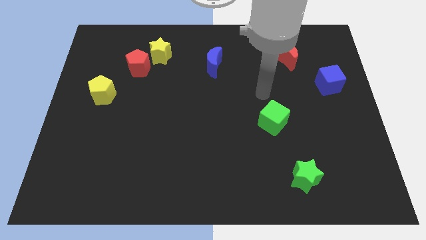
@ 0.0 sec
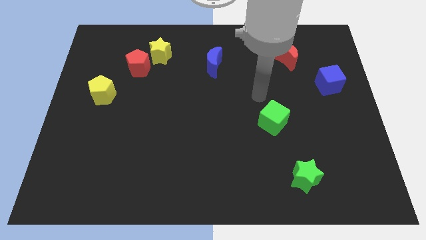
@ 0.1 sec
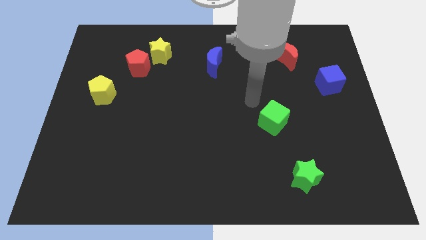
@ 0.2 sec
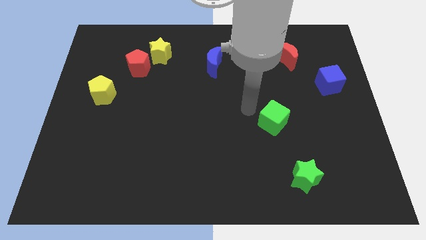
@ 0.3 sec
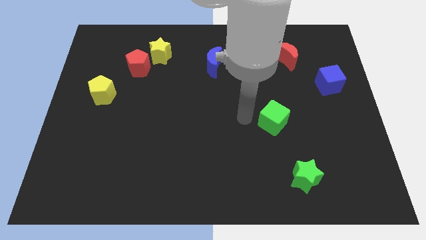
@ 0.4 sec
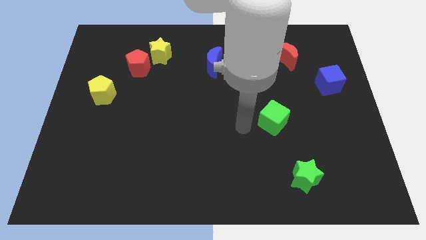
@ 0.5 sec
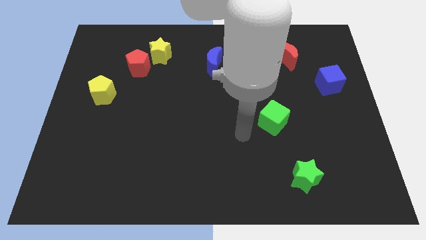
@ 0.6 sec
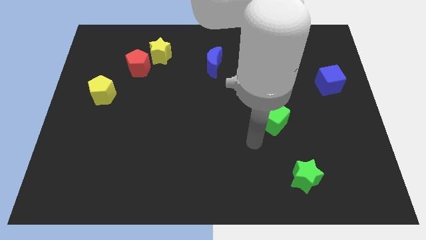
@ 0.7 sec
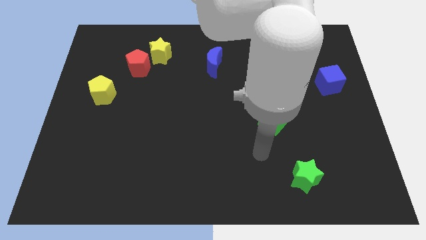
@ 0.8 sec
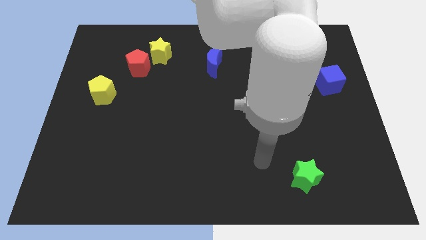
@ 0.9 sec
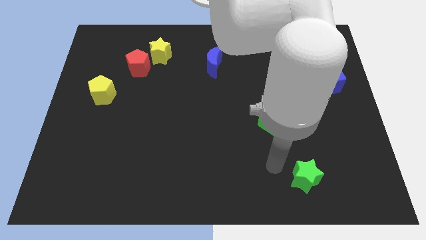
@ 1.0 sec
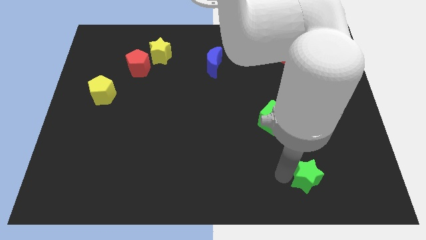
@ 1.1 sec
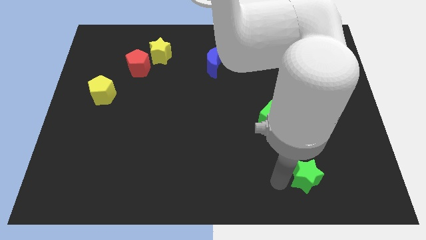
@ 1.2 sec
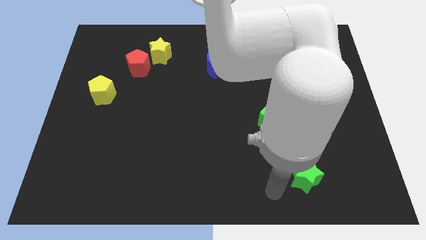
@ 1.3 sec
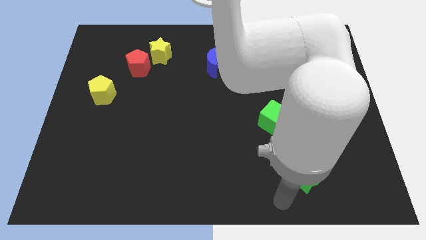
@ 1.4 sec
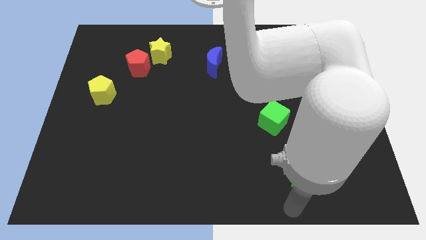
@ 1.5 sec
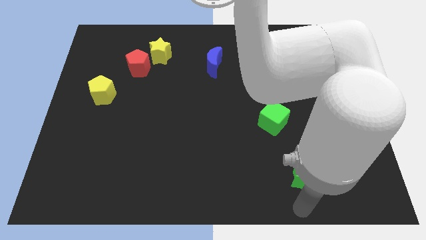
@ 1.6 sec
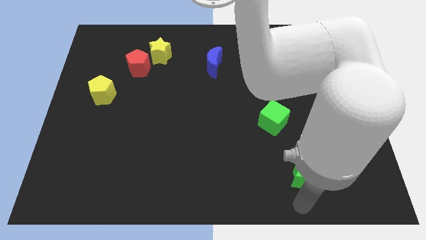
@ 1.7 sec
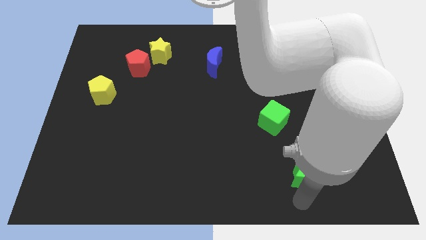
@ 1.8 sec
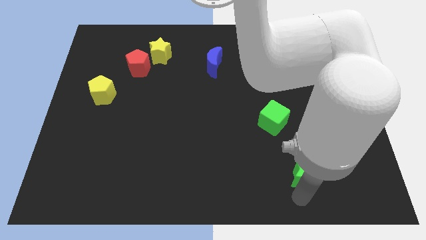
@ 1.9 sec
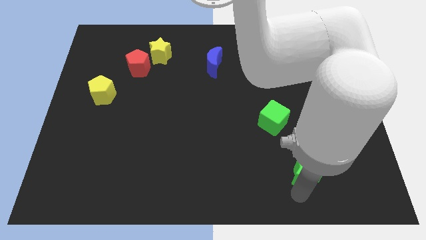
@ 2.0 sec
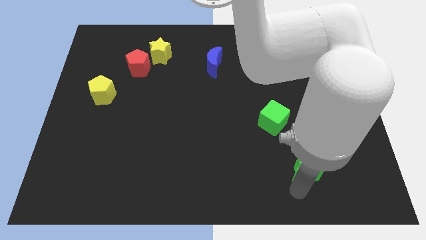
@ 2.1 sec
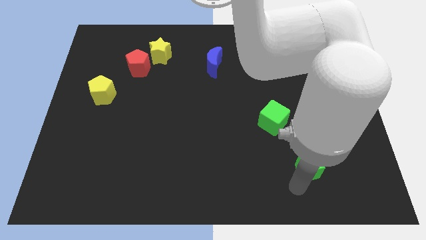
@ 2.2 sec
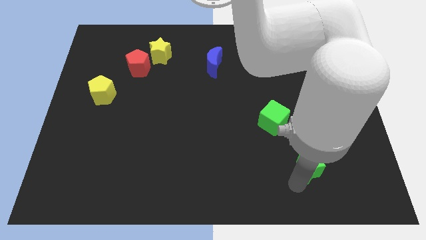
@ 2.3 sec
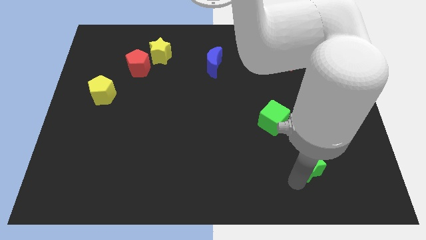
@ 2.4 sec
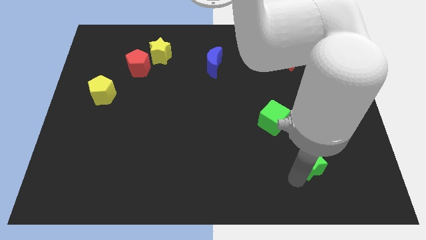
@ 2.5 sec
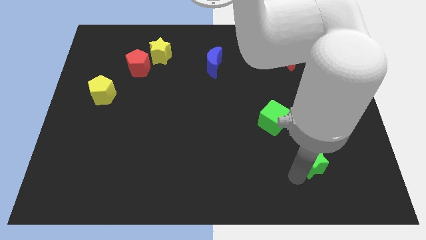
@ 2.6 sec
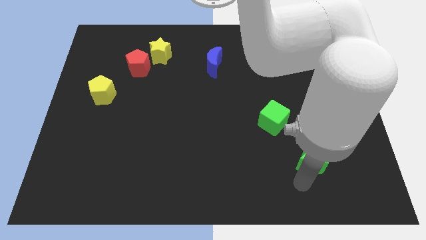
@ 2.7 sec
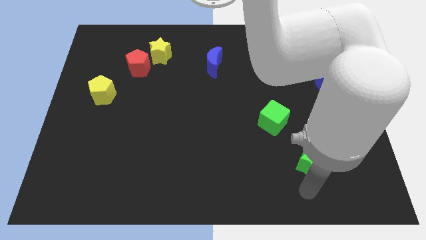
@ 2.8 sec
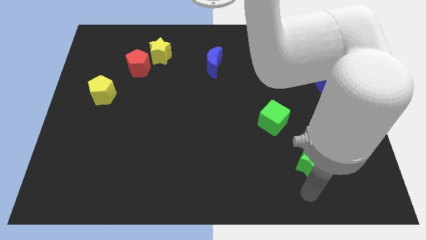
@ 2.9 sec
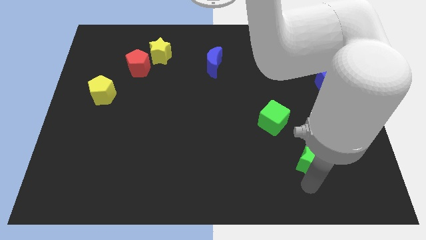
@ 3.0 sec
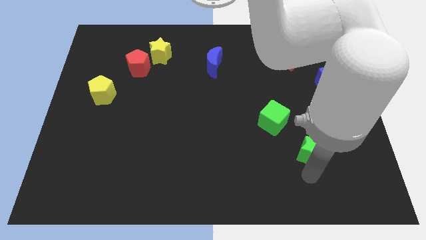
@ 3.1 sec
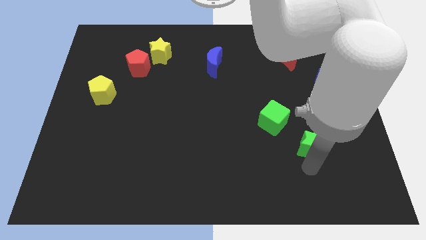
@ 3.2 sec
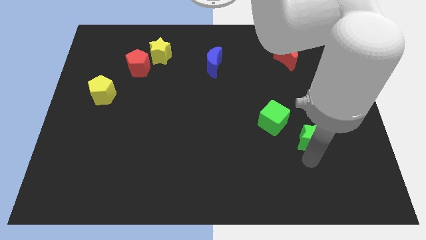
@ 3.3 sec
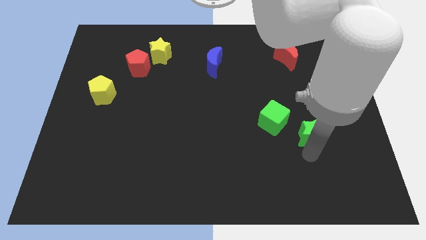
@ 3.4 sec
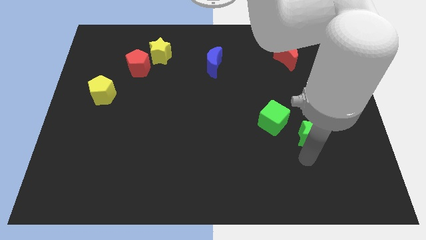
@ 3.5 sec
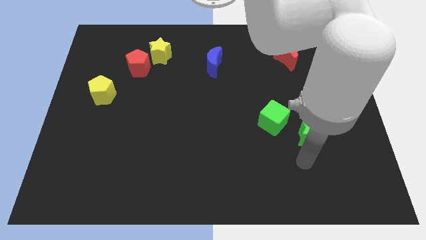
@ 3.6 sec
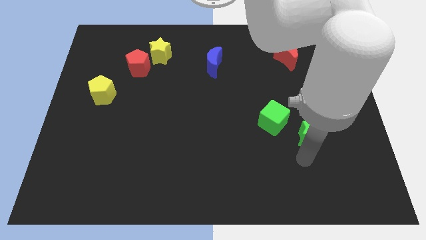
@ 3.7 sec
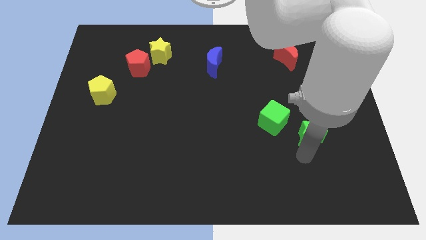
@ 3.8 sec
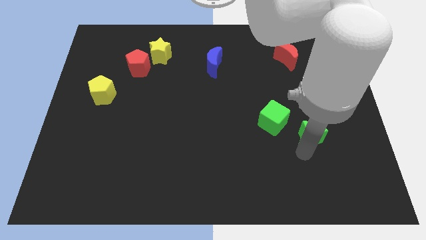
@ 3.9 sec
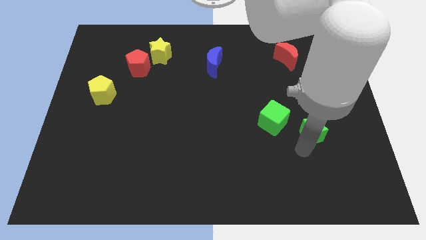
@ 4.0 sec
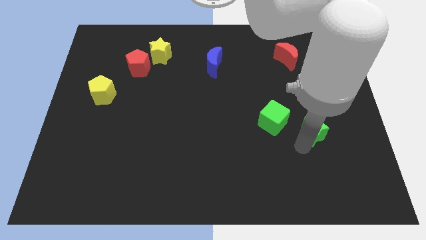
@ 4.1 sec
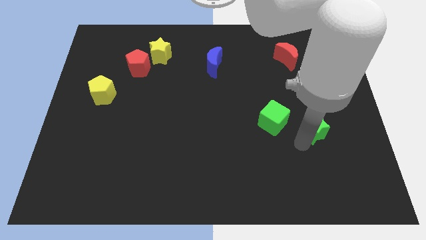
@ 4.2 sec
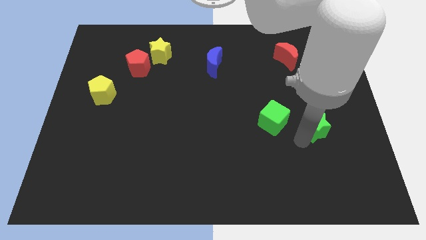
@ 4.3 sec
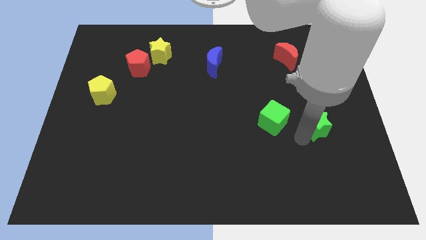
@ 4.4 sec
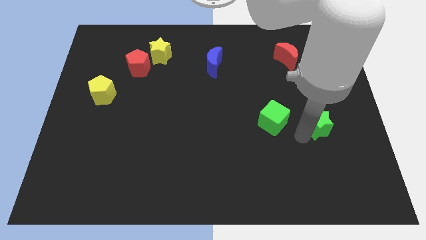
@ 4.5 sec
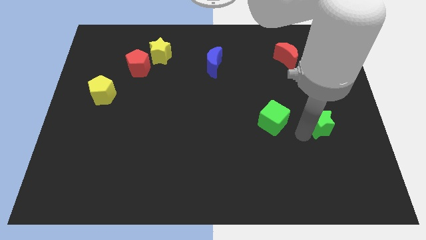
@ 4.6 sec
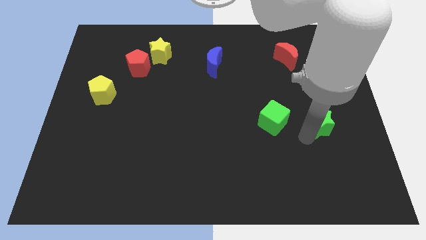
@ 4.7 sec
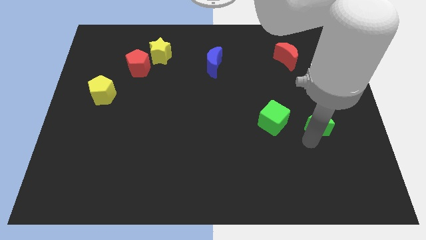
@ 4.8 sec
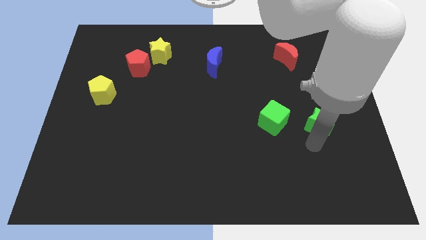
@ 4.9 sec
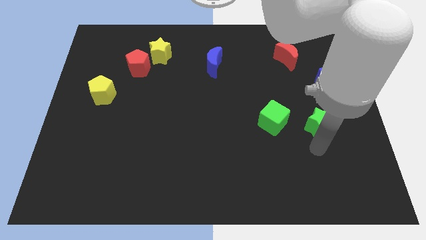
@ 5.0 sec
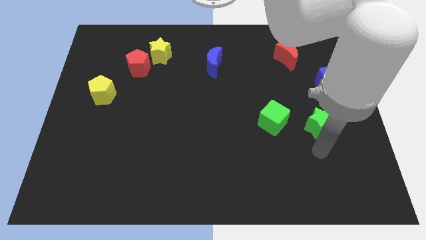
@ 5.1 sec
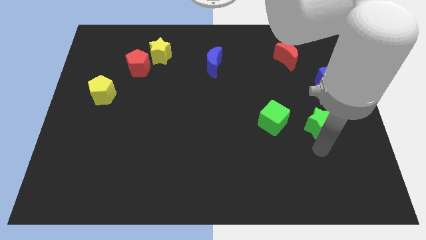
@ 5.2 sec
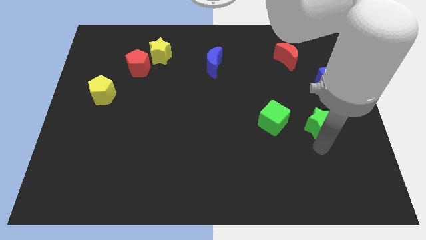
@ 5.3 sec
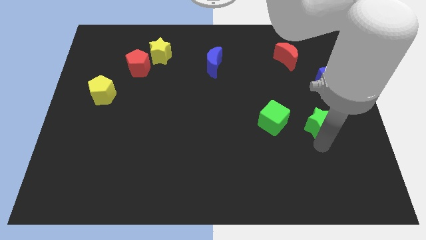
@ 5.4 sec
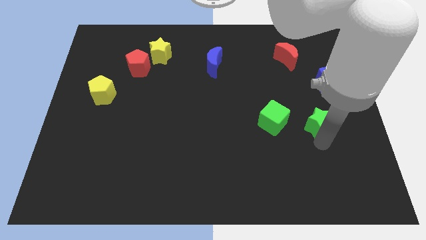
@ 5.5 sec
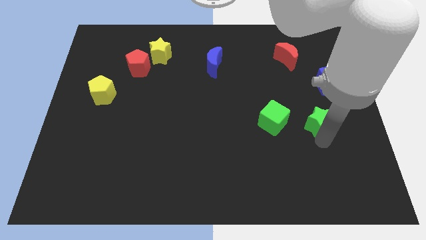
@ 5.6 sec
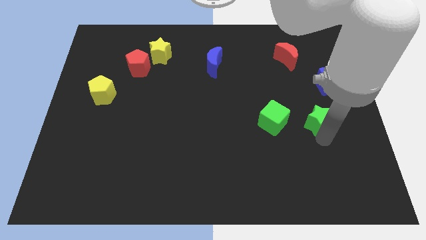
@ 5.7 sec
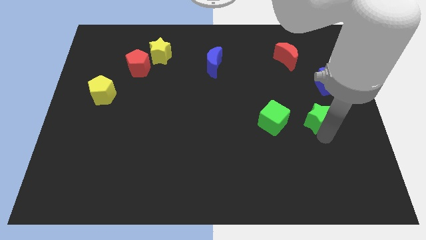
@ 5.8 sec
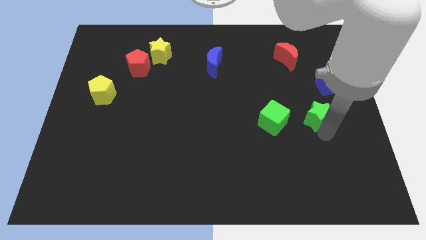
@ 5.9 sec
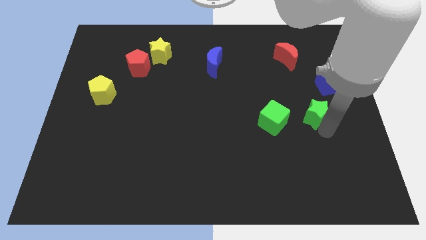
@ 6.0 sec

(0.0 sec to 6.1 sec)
move the green star diagonally down and to the left of the blue cube

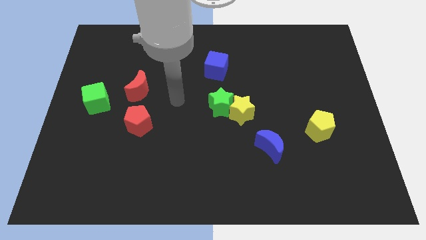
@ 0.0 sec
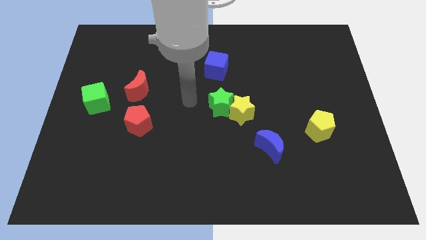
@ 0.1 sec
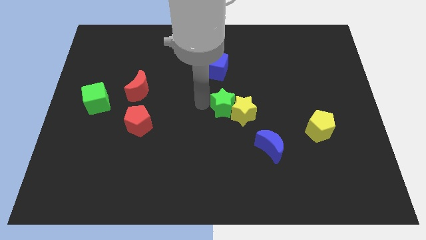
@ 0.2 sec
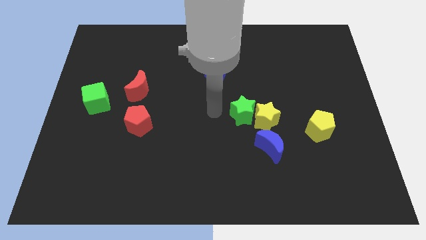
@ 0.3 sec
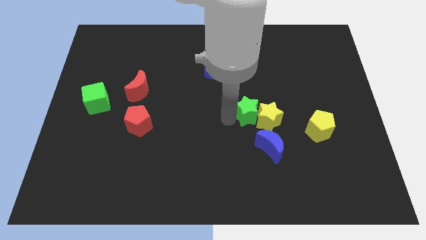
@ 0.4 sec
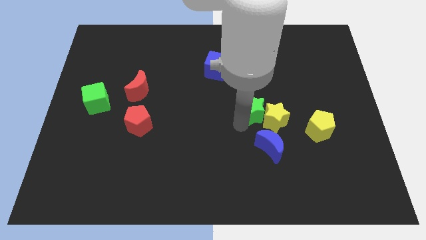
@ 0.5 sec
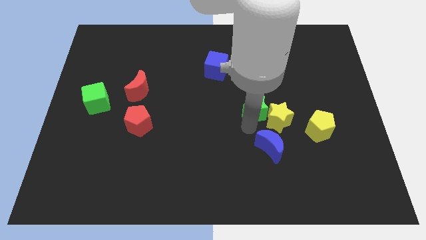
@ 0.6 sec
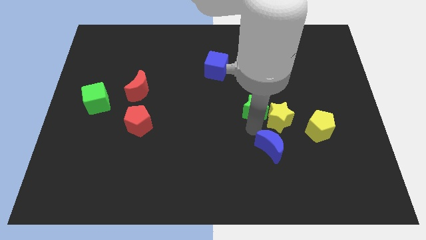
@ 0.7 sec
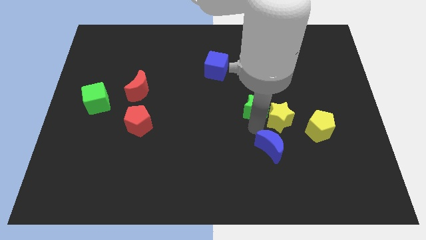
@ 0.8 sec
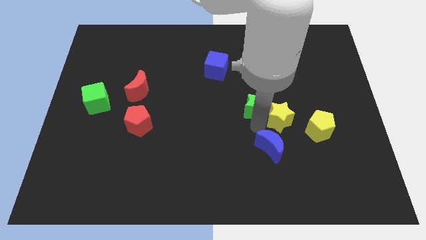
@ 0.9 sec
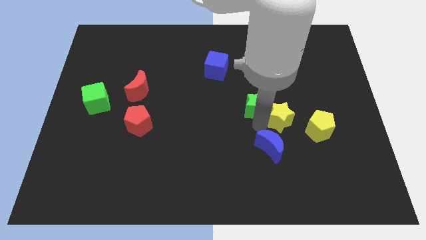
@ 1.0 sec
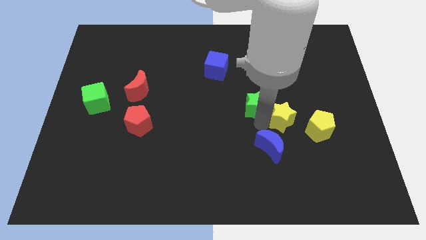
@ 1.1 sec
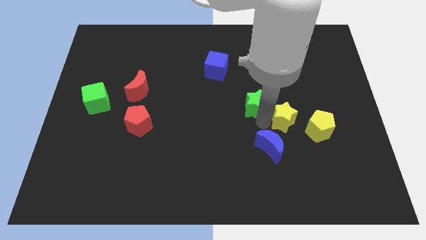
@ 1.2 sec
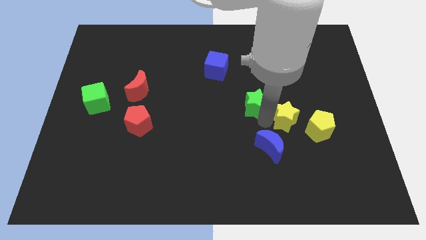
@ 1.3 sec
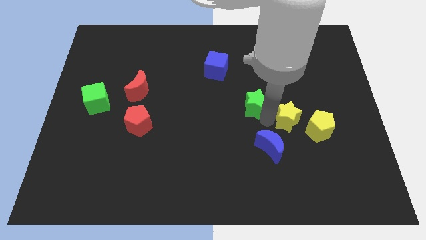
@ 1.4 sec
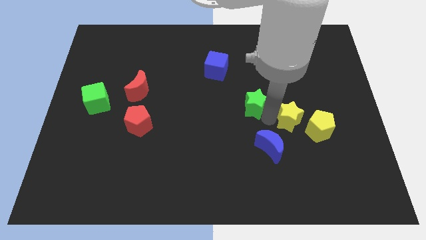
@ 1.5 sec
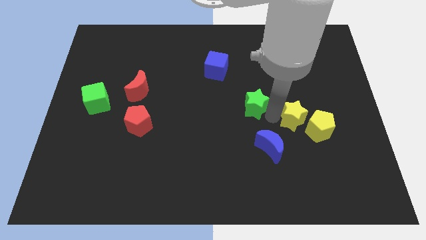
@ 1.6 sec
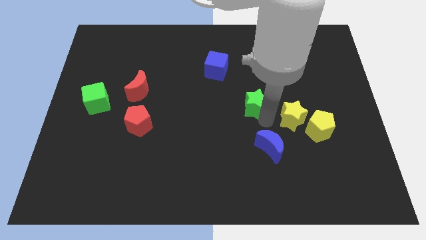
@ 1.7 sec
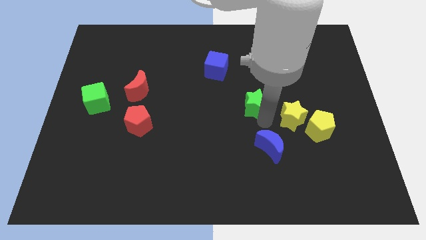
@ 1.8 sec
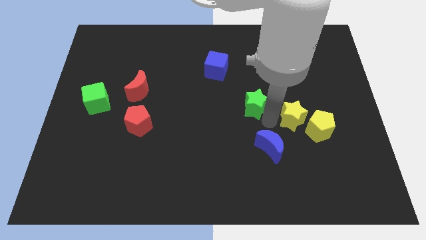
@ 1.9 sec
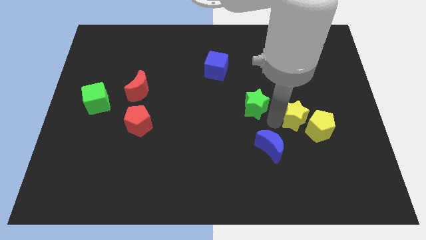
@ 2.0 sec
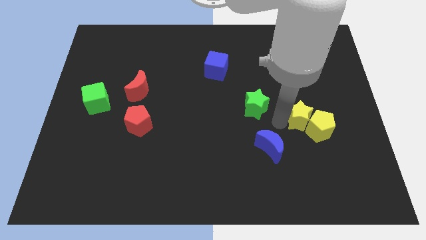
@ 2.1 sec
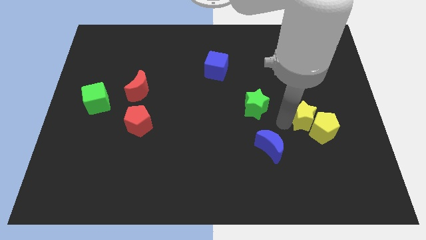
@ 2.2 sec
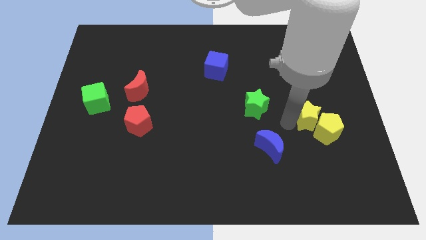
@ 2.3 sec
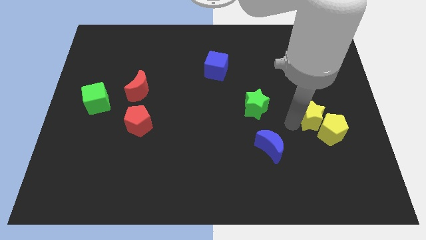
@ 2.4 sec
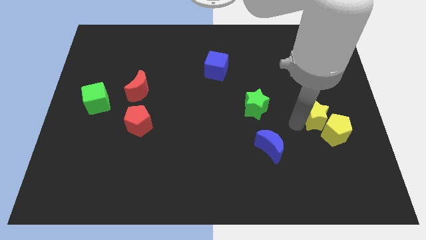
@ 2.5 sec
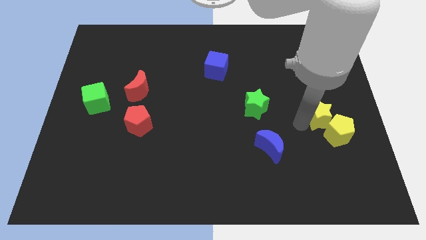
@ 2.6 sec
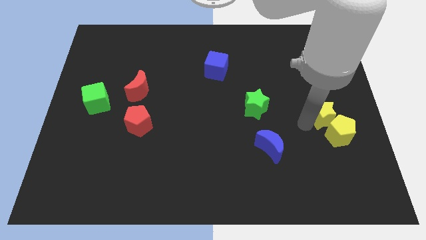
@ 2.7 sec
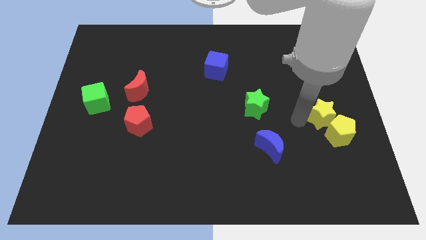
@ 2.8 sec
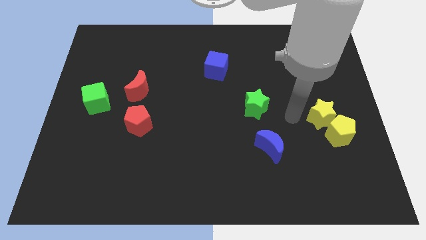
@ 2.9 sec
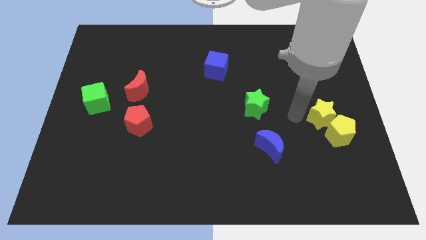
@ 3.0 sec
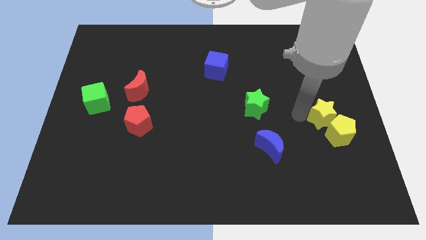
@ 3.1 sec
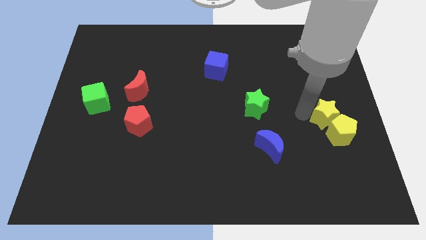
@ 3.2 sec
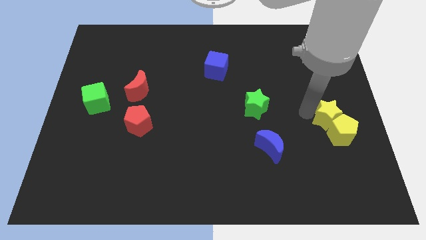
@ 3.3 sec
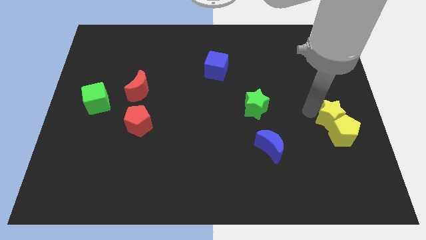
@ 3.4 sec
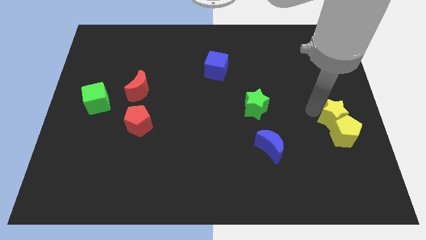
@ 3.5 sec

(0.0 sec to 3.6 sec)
slide the yellow star diagonally up and to the right of the yellow pentagon
